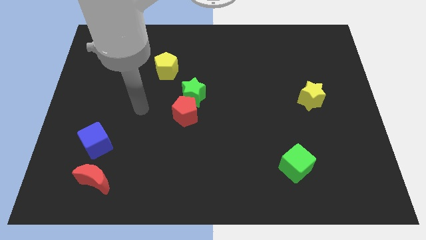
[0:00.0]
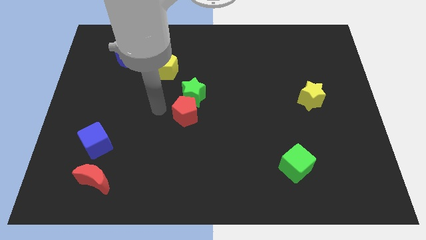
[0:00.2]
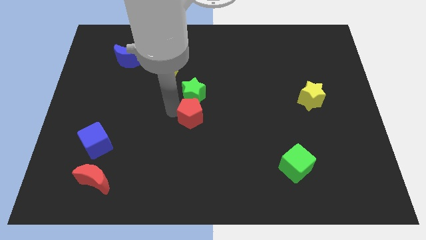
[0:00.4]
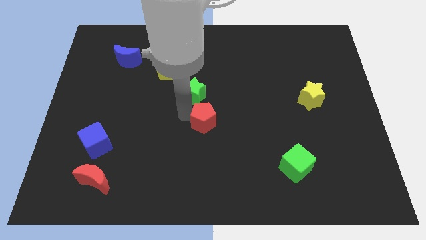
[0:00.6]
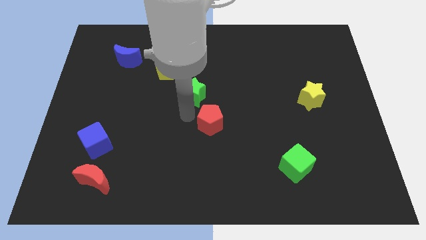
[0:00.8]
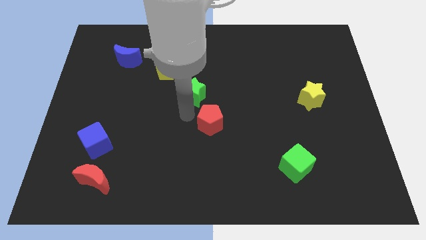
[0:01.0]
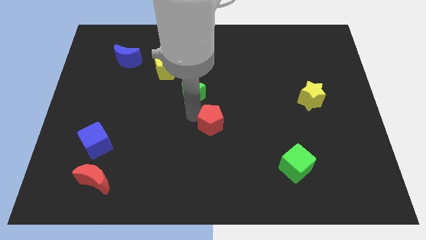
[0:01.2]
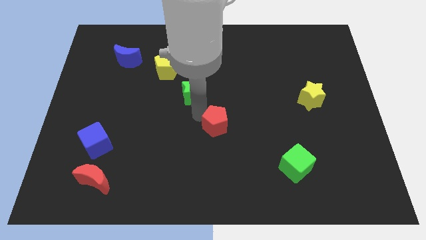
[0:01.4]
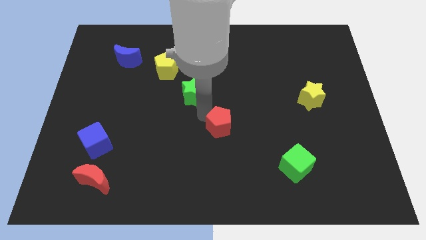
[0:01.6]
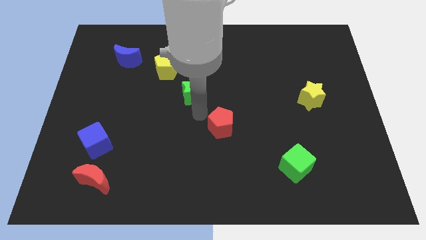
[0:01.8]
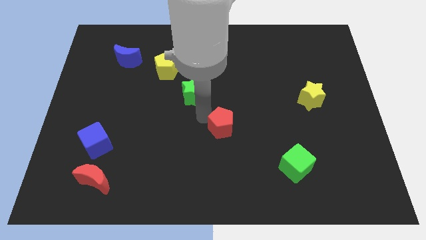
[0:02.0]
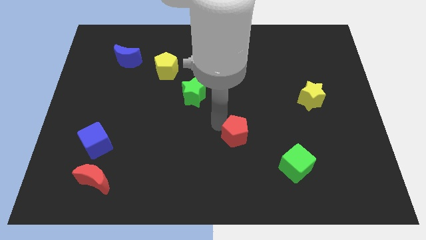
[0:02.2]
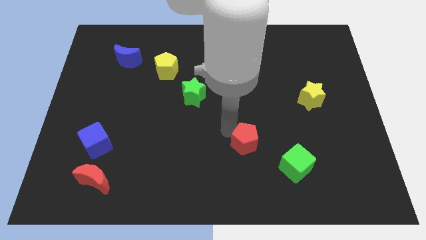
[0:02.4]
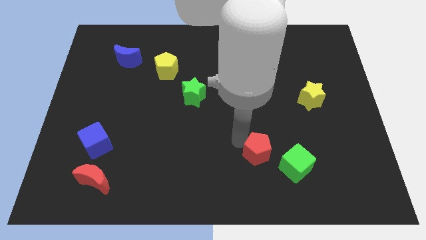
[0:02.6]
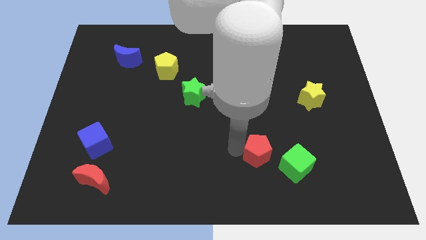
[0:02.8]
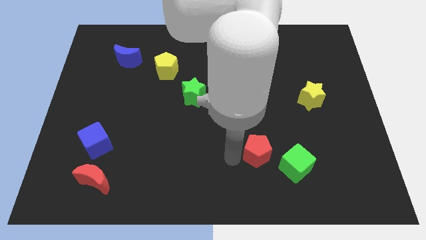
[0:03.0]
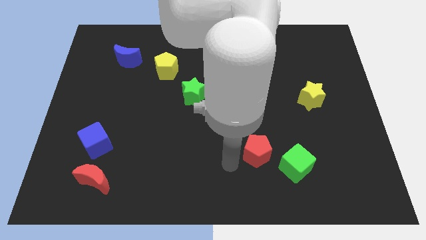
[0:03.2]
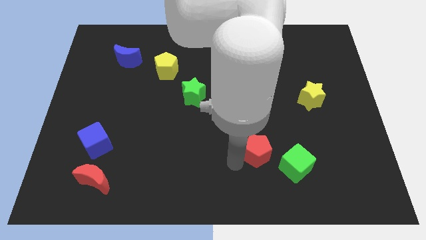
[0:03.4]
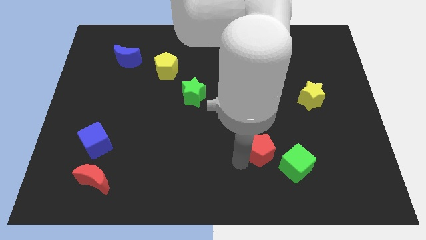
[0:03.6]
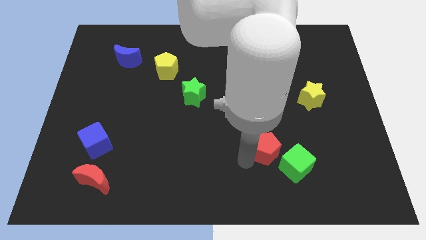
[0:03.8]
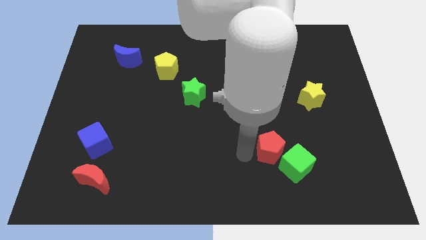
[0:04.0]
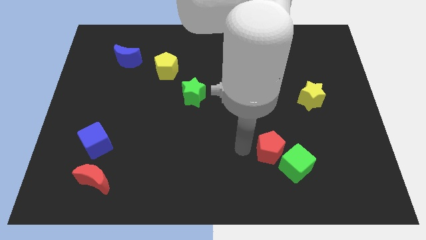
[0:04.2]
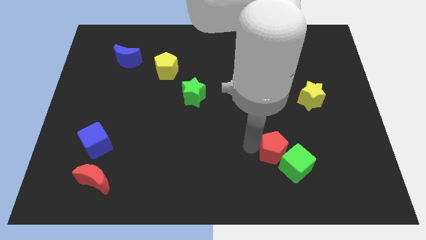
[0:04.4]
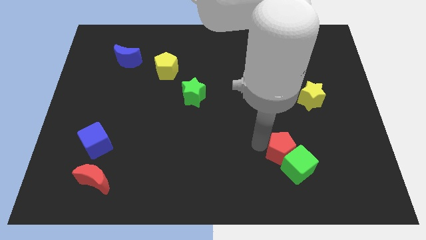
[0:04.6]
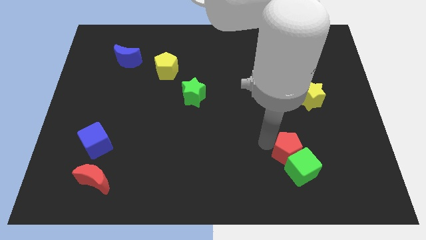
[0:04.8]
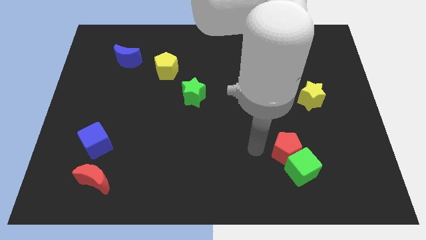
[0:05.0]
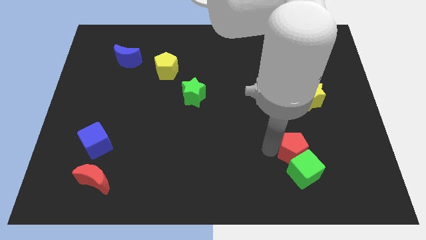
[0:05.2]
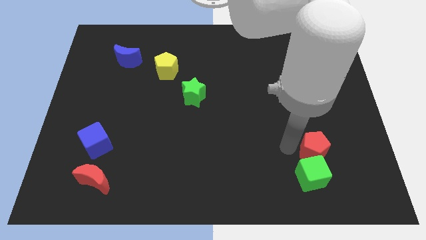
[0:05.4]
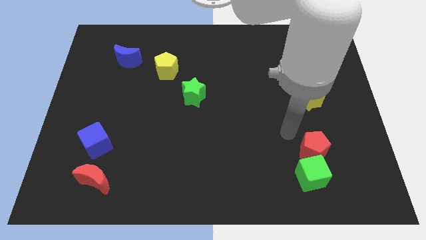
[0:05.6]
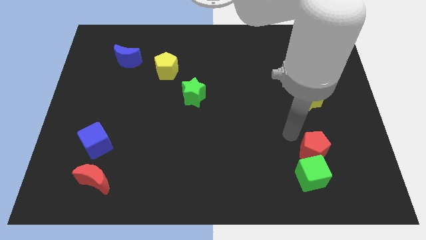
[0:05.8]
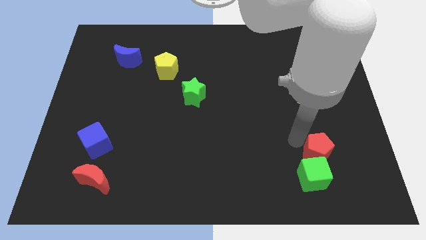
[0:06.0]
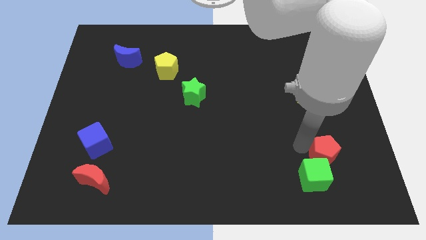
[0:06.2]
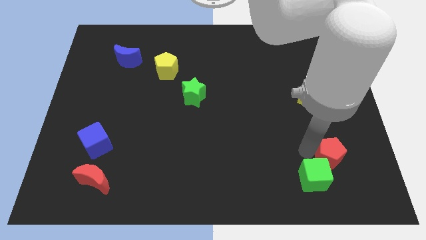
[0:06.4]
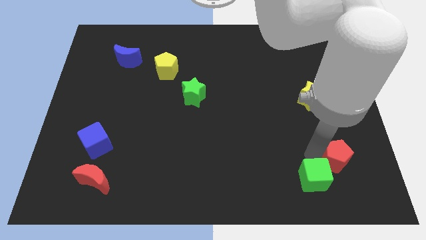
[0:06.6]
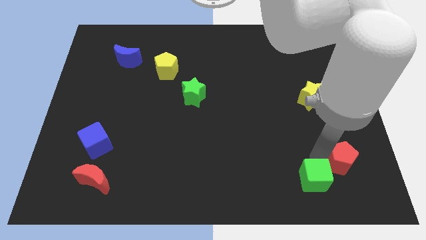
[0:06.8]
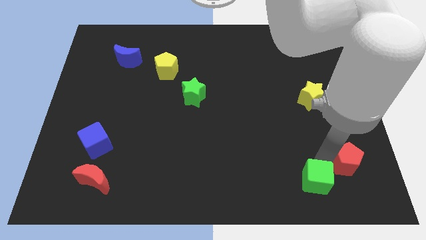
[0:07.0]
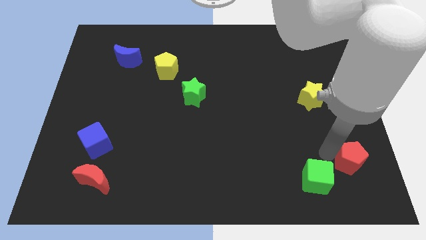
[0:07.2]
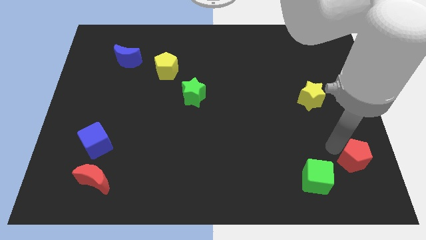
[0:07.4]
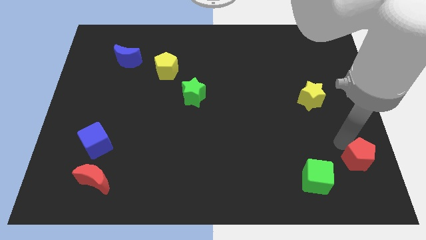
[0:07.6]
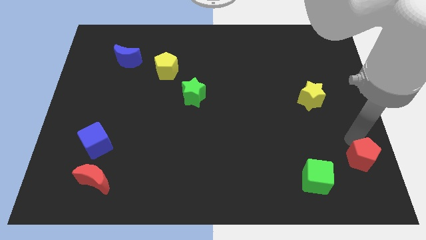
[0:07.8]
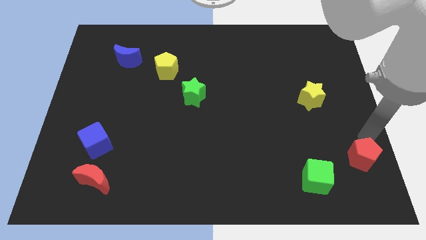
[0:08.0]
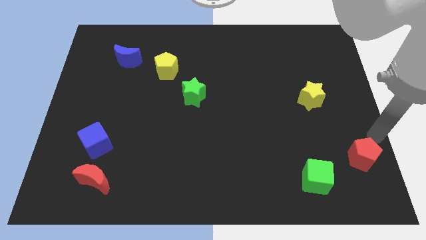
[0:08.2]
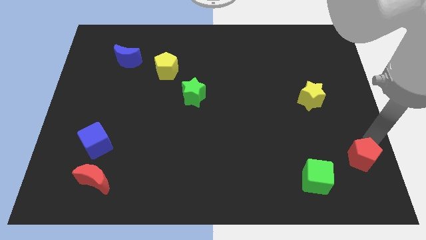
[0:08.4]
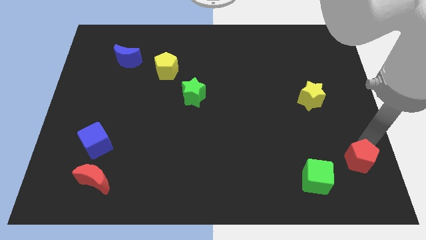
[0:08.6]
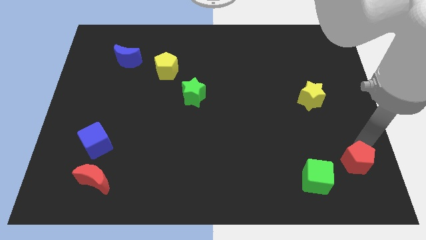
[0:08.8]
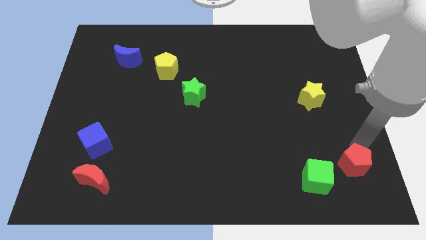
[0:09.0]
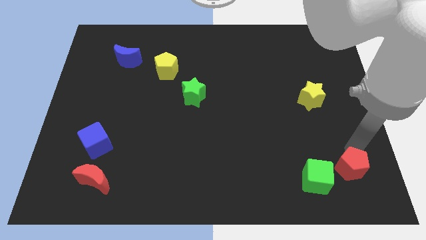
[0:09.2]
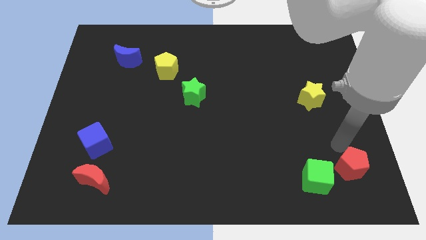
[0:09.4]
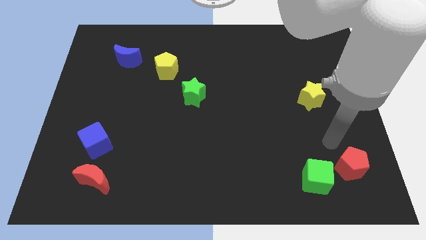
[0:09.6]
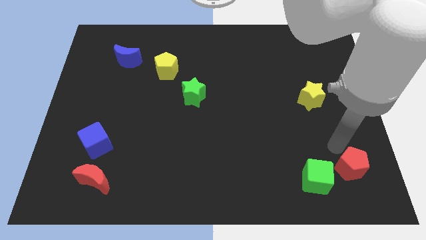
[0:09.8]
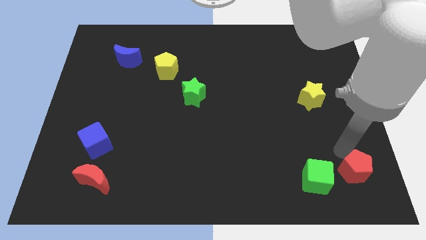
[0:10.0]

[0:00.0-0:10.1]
put the red pentagon to the bottom right of the board

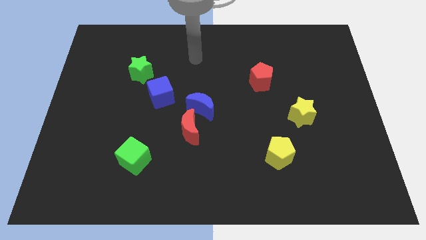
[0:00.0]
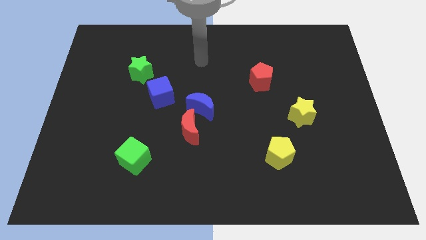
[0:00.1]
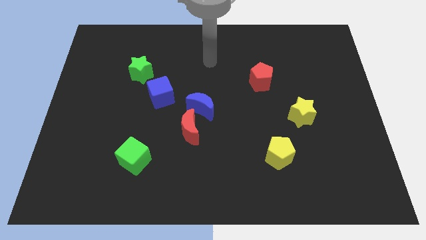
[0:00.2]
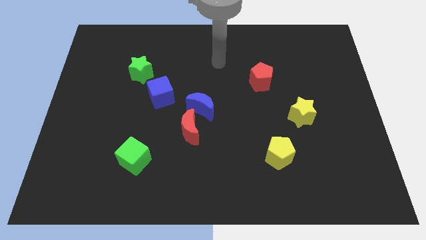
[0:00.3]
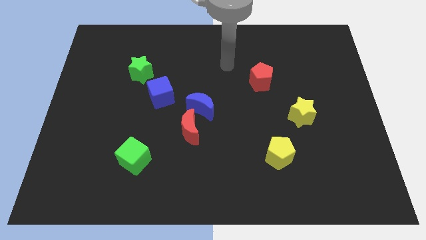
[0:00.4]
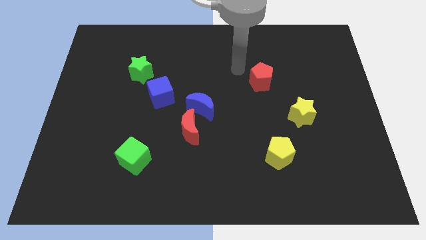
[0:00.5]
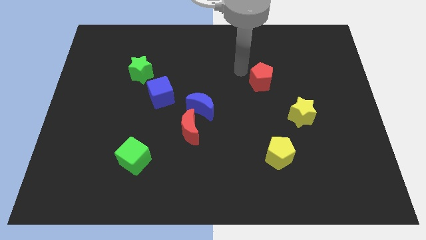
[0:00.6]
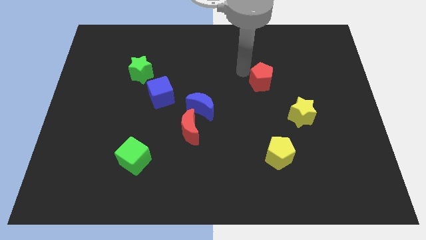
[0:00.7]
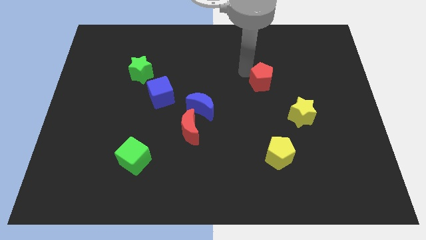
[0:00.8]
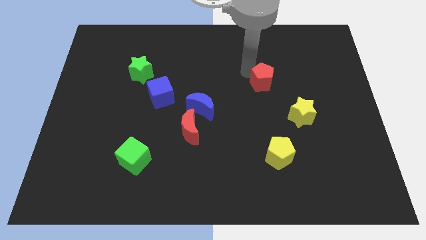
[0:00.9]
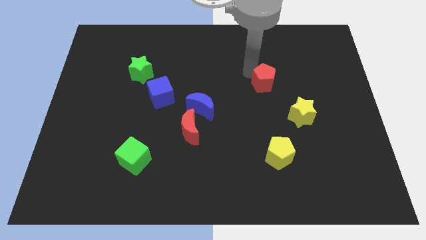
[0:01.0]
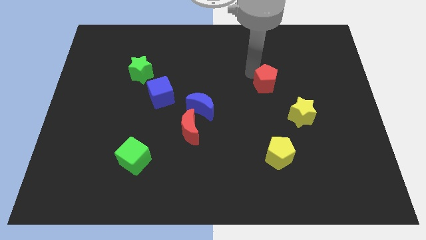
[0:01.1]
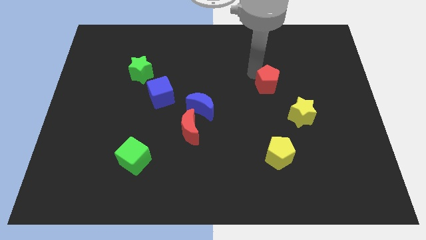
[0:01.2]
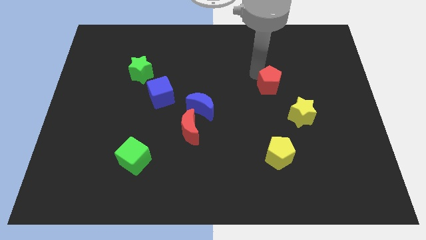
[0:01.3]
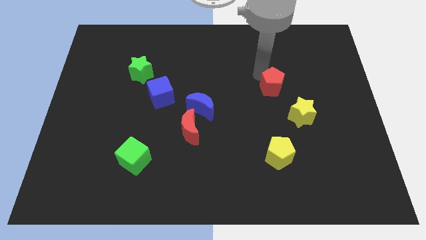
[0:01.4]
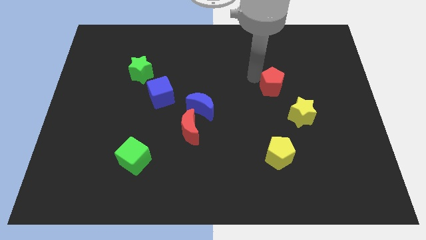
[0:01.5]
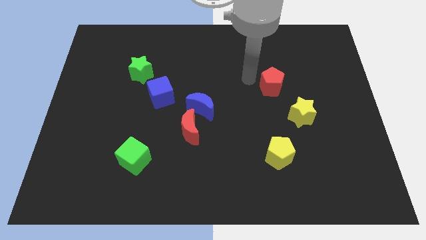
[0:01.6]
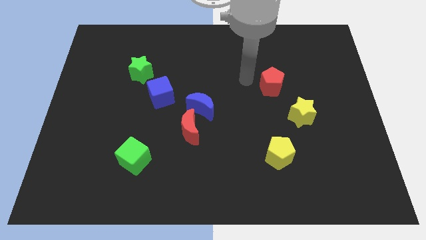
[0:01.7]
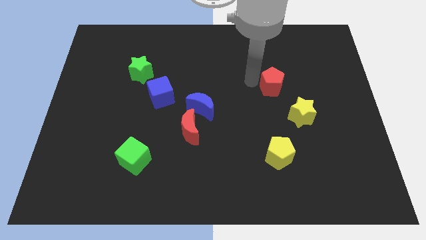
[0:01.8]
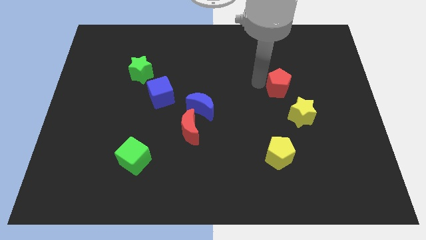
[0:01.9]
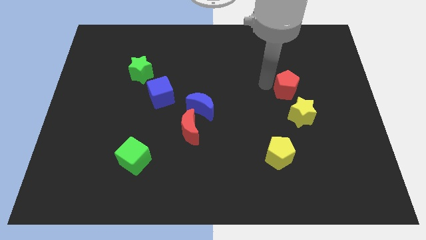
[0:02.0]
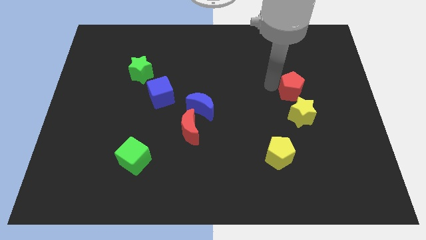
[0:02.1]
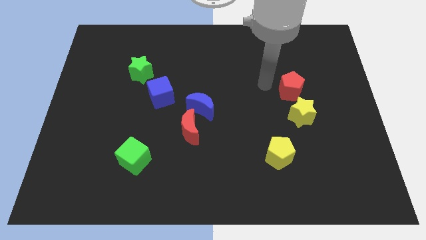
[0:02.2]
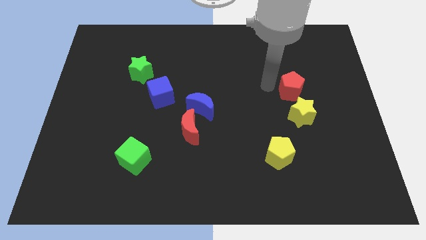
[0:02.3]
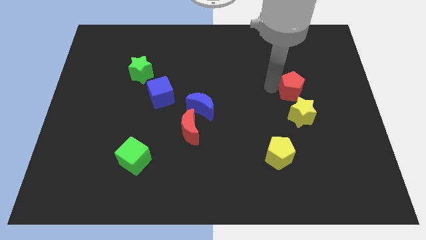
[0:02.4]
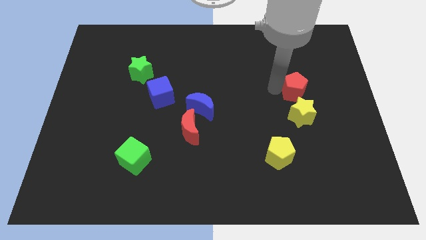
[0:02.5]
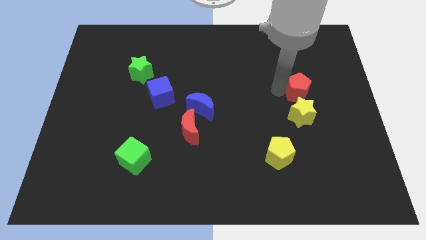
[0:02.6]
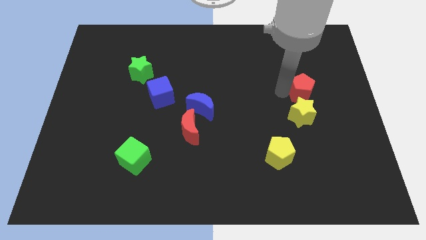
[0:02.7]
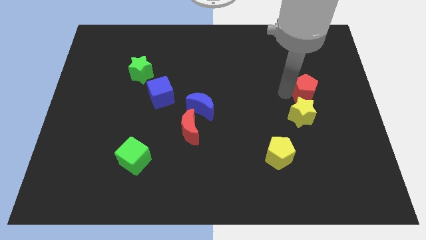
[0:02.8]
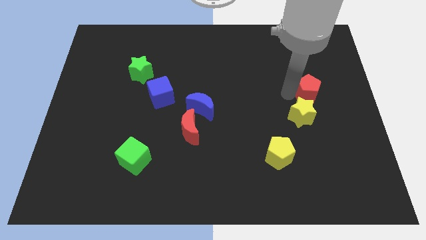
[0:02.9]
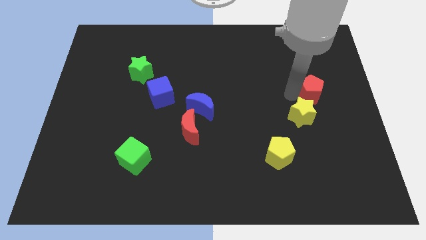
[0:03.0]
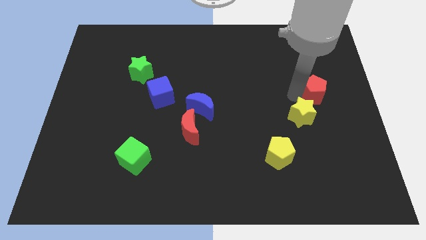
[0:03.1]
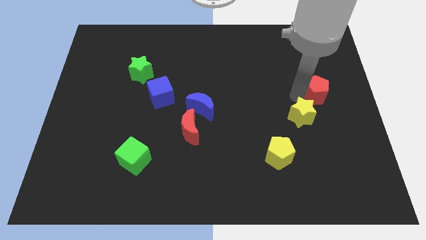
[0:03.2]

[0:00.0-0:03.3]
push the red pentagon to the center right
